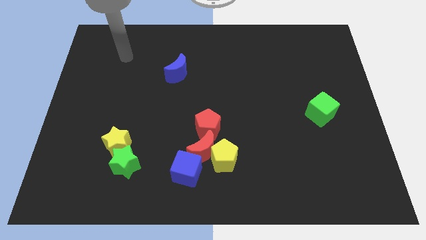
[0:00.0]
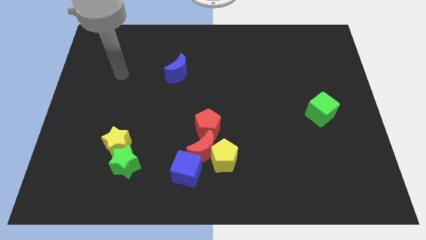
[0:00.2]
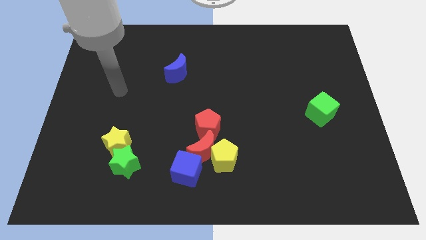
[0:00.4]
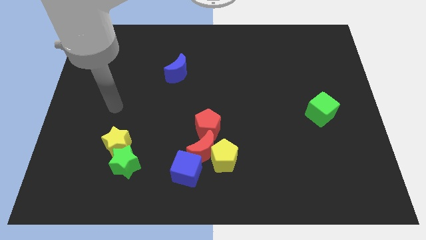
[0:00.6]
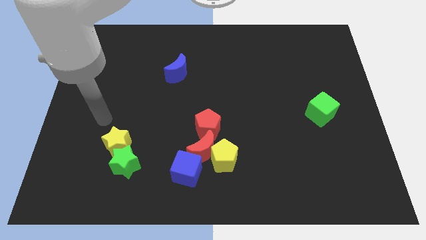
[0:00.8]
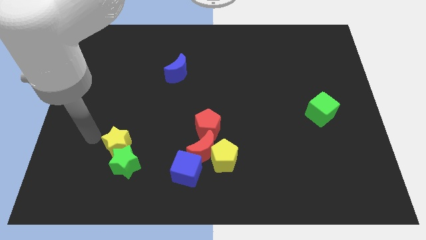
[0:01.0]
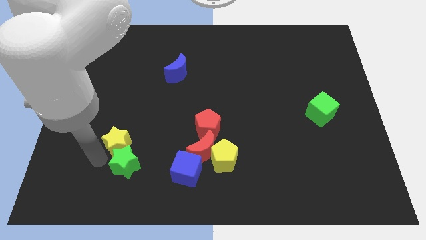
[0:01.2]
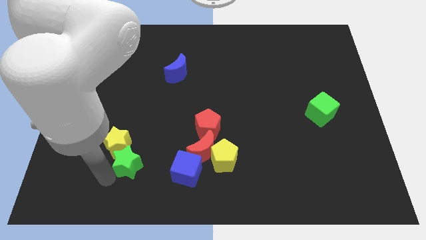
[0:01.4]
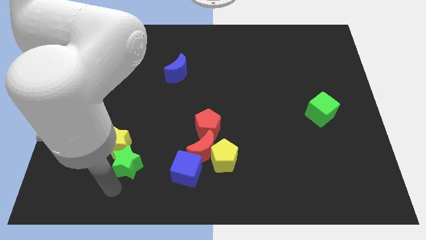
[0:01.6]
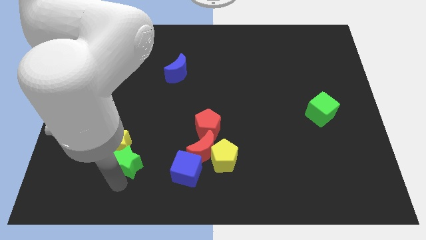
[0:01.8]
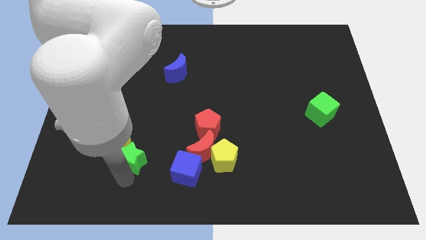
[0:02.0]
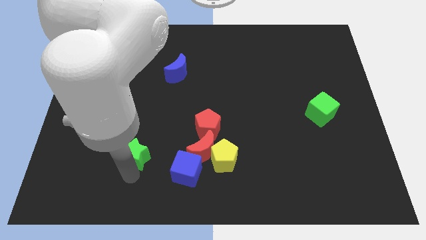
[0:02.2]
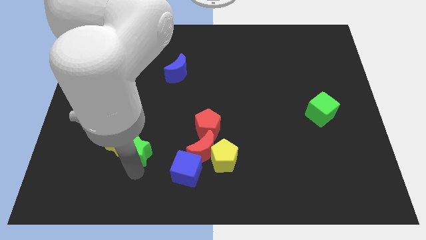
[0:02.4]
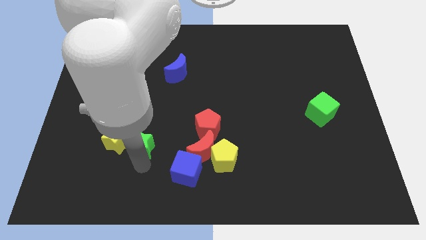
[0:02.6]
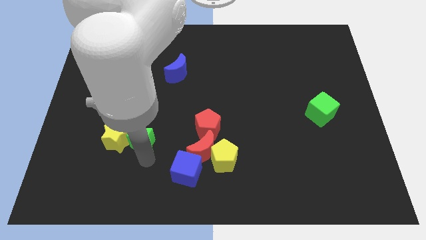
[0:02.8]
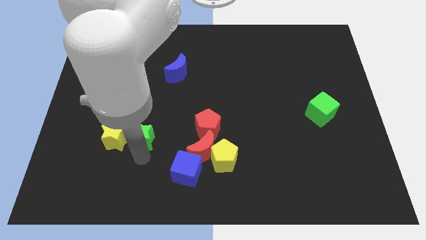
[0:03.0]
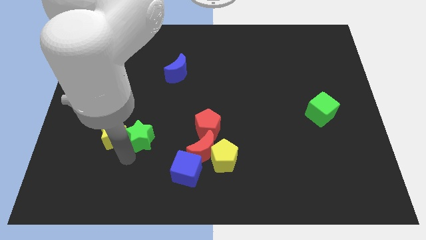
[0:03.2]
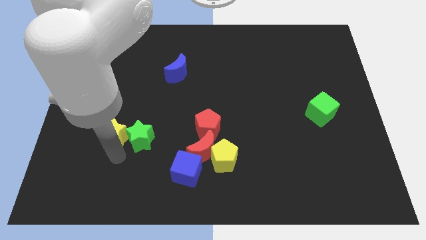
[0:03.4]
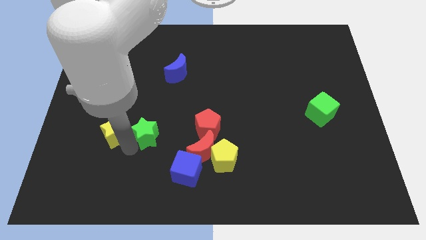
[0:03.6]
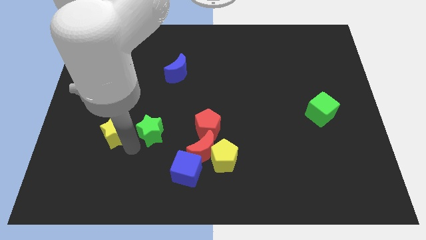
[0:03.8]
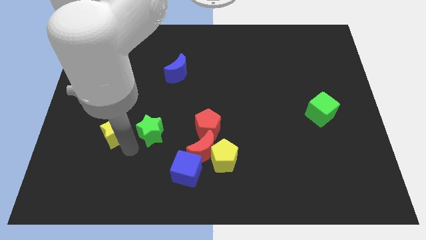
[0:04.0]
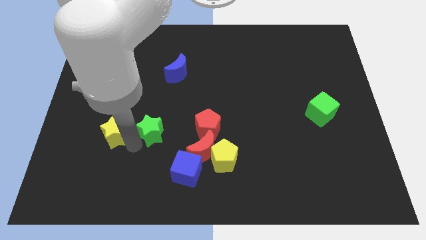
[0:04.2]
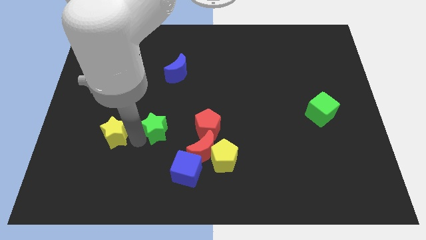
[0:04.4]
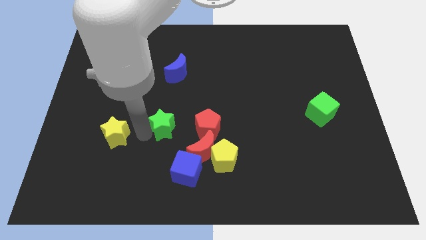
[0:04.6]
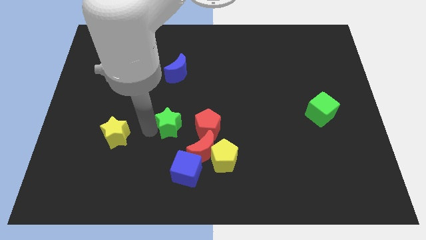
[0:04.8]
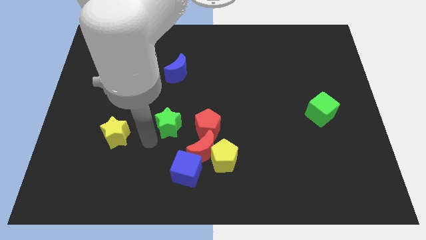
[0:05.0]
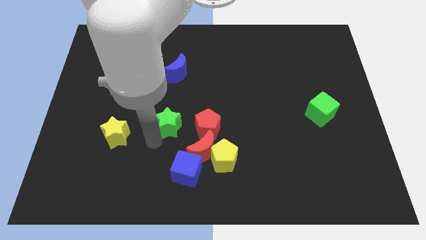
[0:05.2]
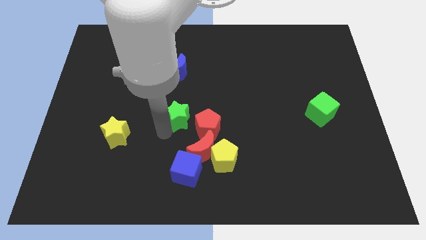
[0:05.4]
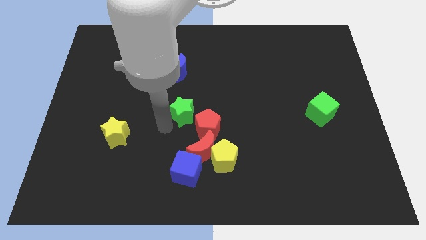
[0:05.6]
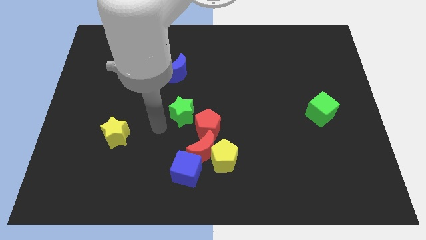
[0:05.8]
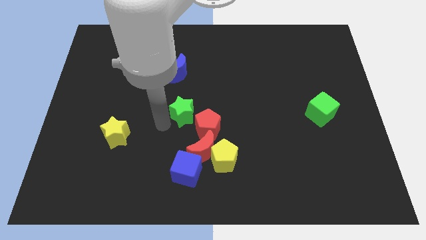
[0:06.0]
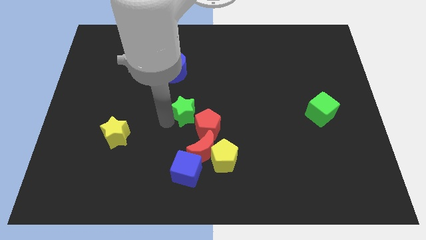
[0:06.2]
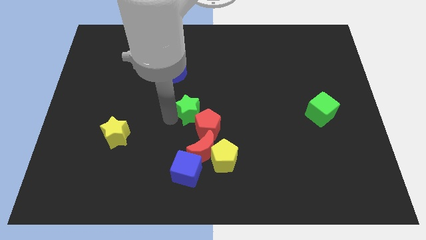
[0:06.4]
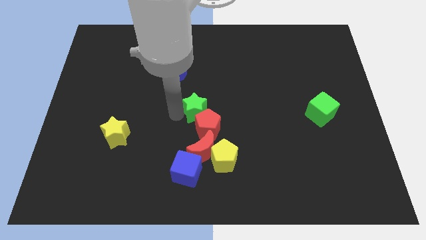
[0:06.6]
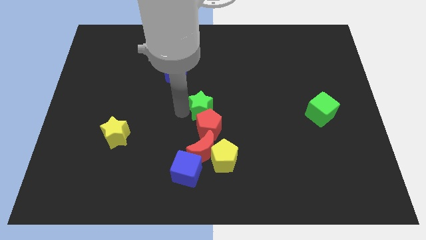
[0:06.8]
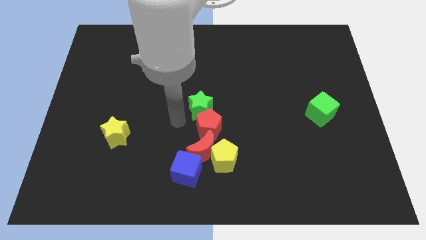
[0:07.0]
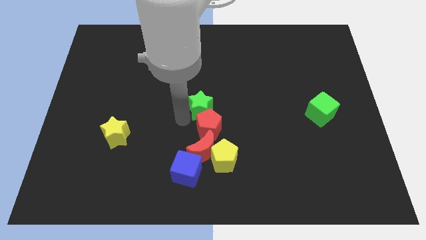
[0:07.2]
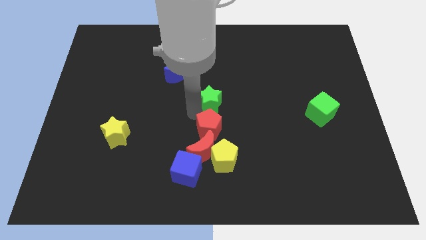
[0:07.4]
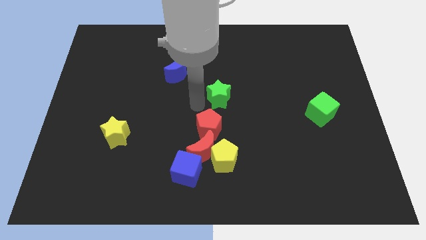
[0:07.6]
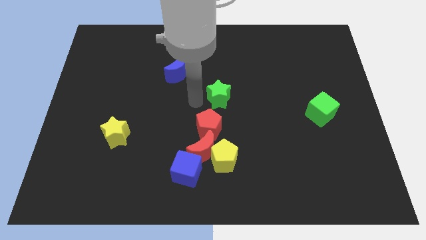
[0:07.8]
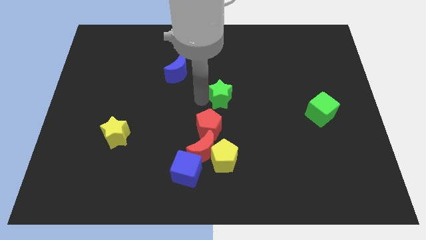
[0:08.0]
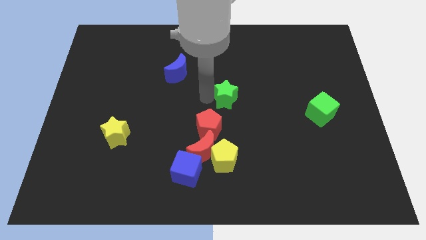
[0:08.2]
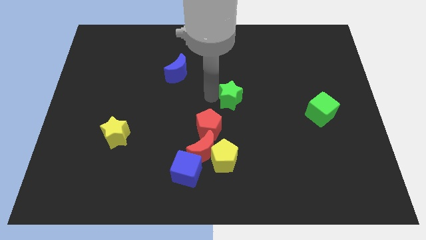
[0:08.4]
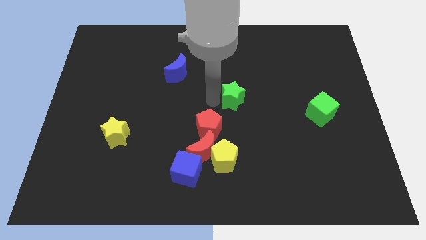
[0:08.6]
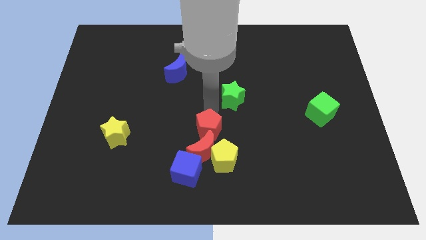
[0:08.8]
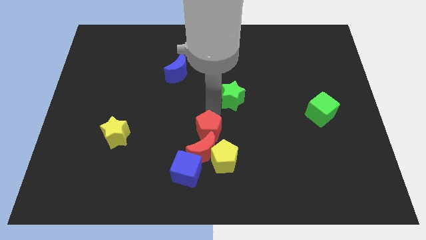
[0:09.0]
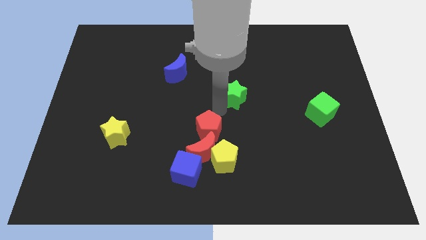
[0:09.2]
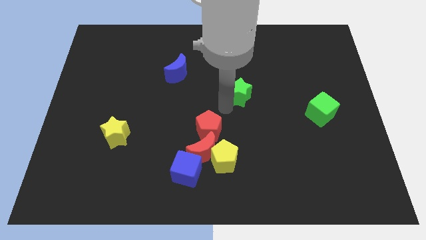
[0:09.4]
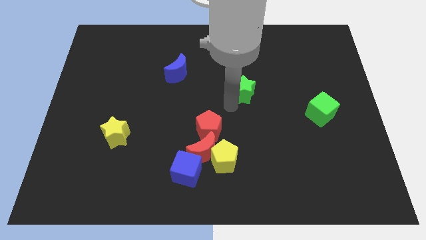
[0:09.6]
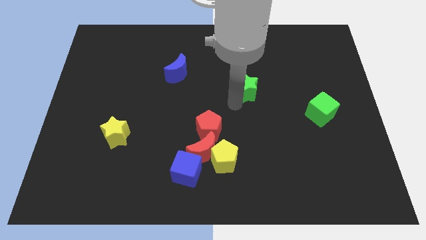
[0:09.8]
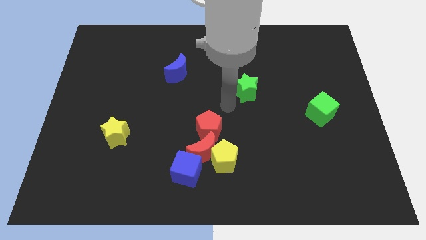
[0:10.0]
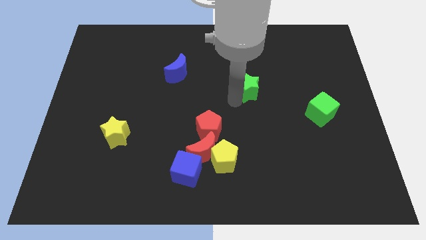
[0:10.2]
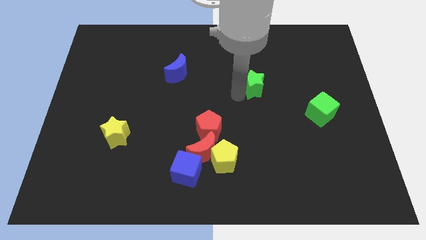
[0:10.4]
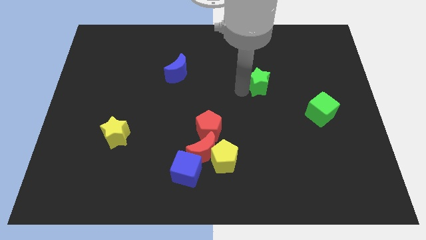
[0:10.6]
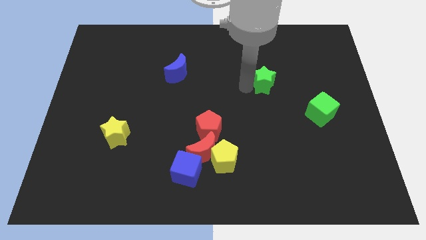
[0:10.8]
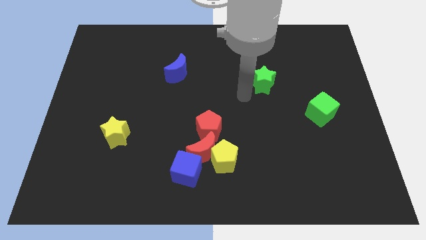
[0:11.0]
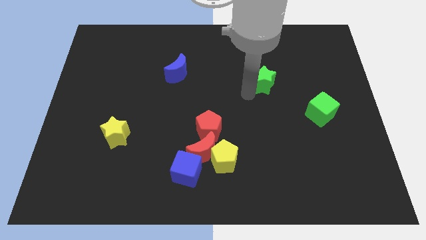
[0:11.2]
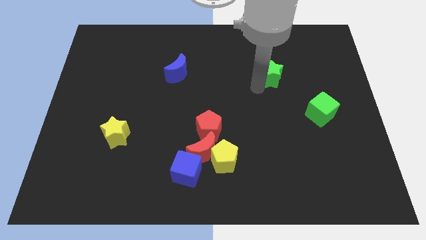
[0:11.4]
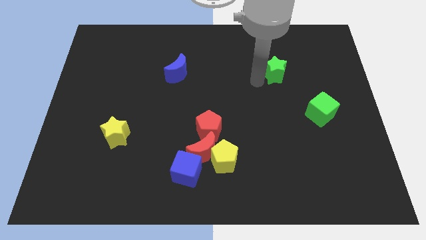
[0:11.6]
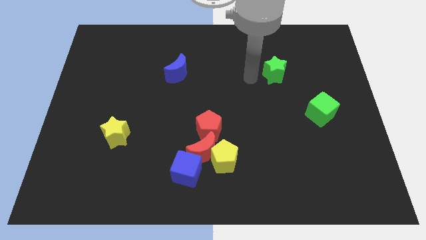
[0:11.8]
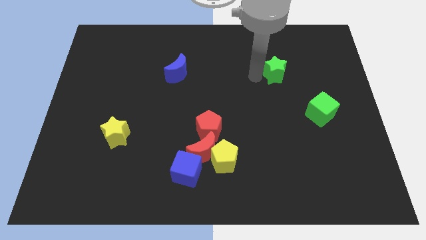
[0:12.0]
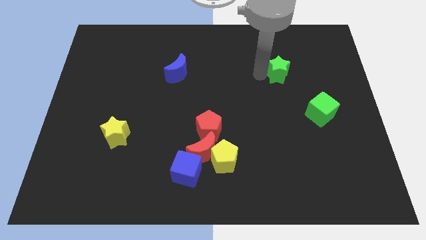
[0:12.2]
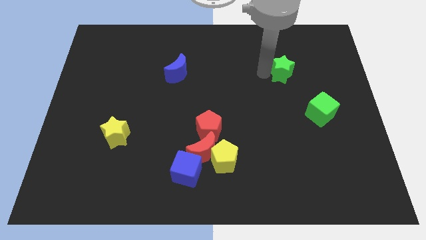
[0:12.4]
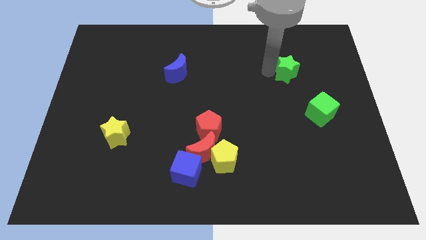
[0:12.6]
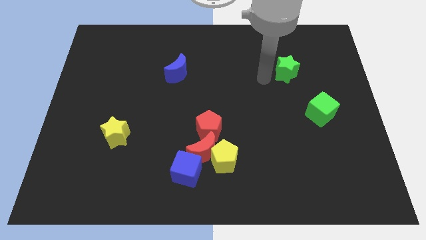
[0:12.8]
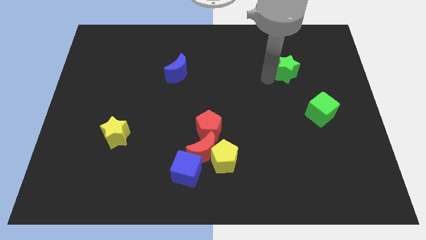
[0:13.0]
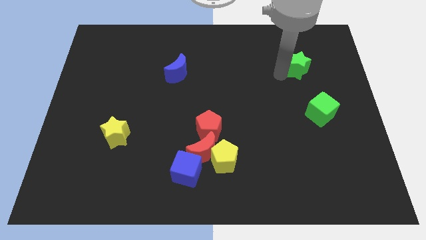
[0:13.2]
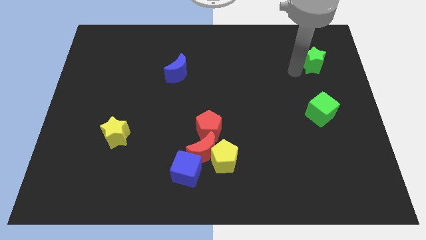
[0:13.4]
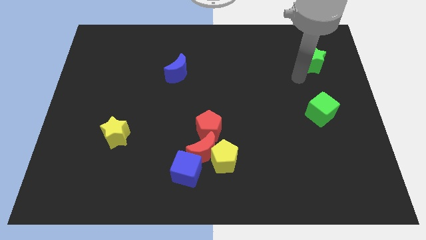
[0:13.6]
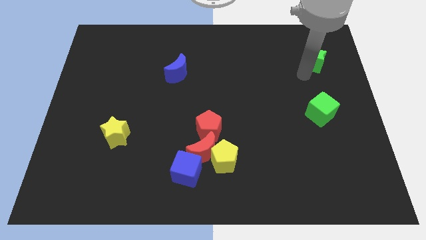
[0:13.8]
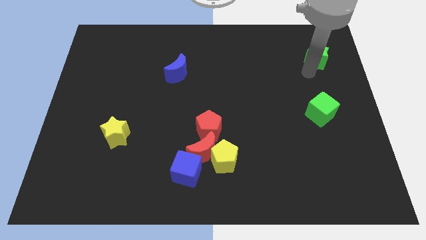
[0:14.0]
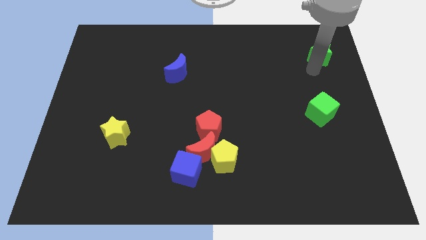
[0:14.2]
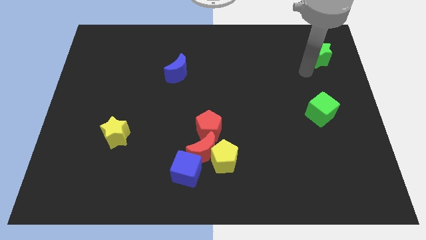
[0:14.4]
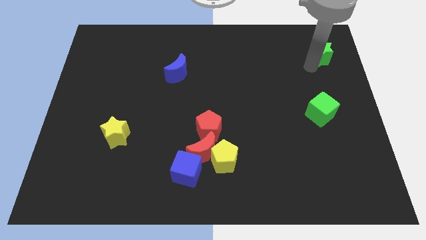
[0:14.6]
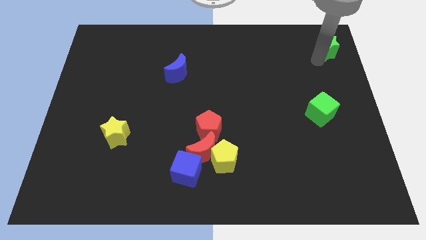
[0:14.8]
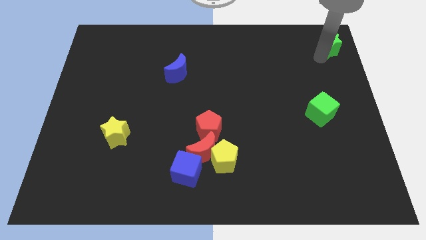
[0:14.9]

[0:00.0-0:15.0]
slide the green star to the top right corner
